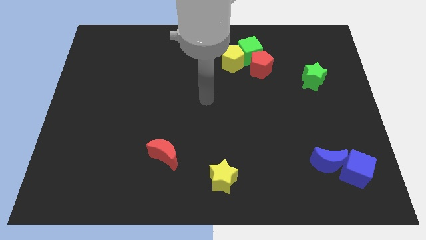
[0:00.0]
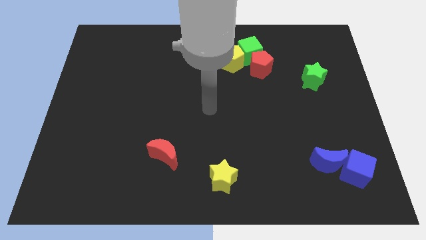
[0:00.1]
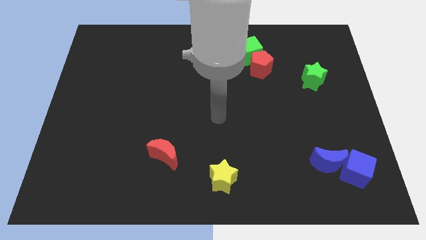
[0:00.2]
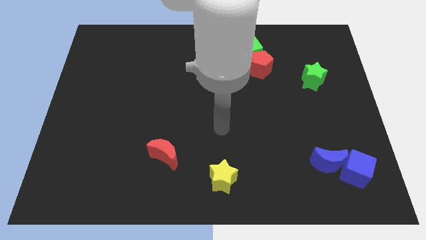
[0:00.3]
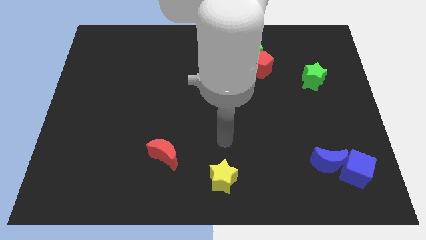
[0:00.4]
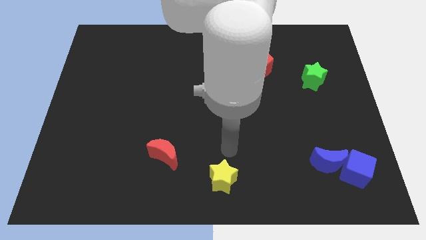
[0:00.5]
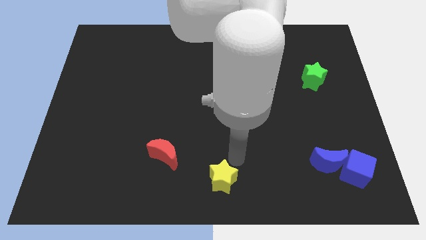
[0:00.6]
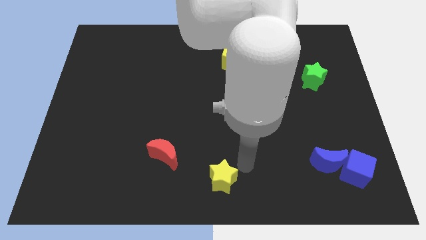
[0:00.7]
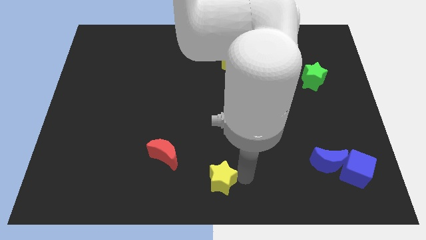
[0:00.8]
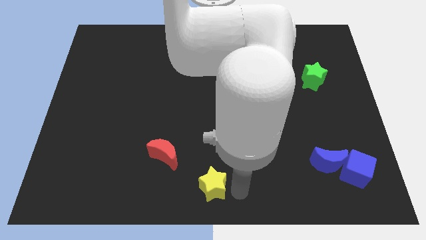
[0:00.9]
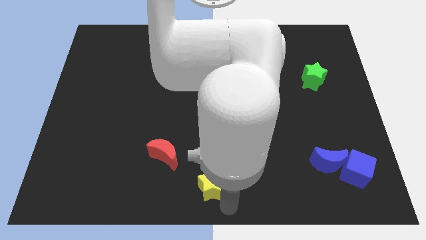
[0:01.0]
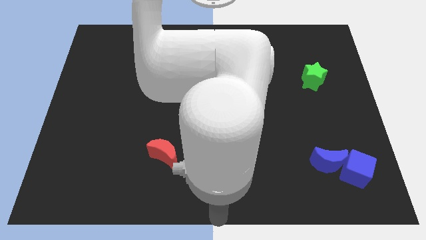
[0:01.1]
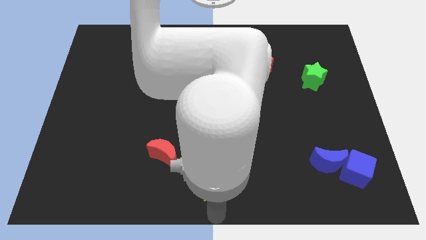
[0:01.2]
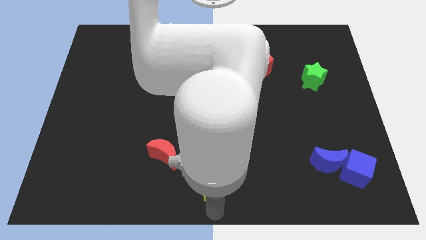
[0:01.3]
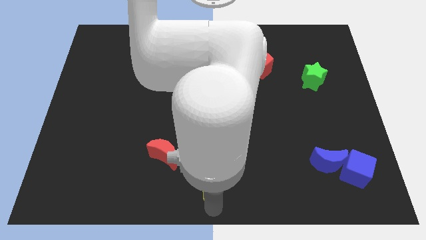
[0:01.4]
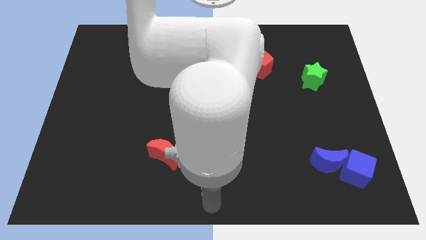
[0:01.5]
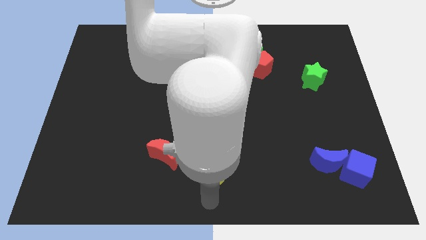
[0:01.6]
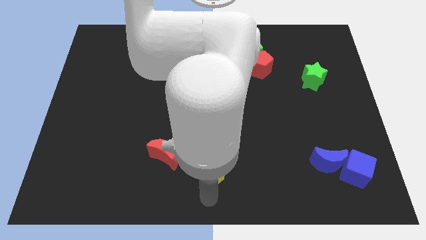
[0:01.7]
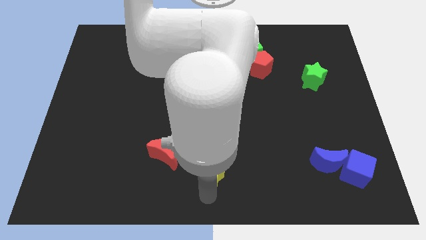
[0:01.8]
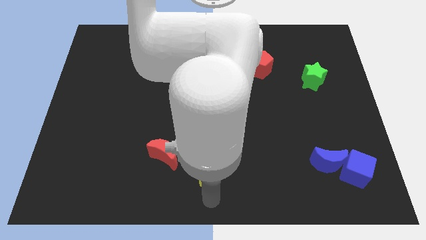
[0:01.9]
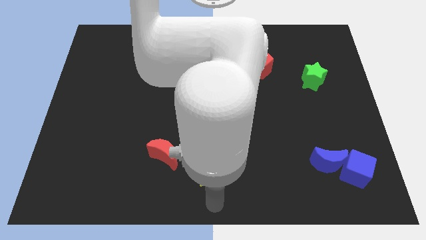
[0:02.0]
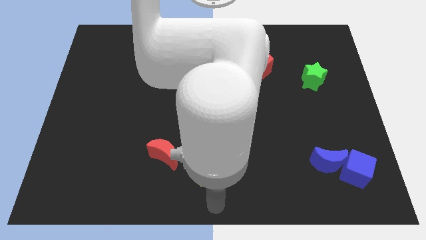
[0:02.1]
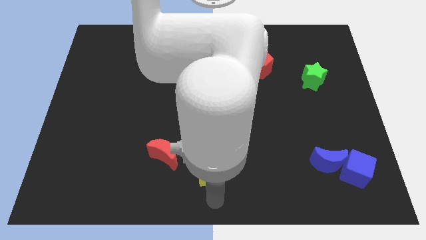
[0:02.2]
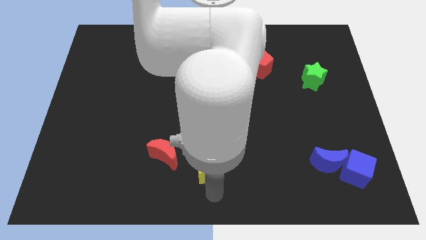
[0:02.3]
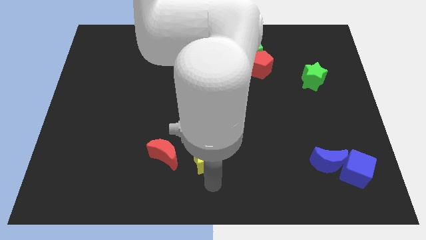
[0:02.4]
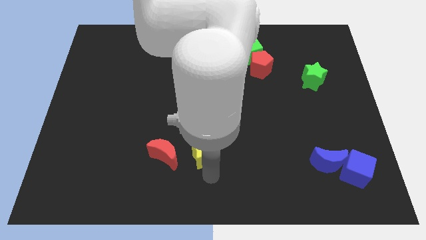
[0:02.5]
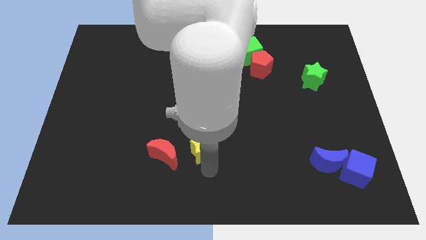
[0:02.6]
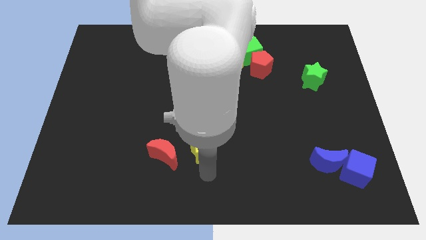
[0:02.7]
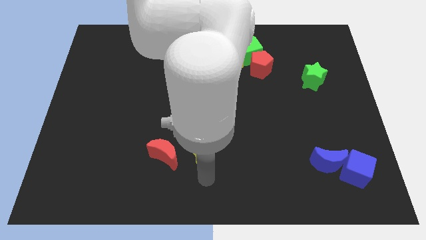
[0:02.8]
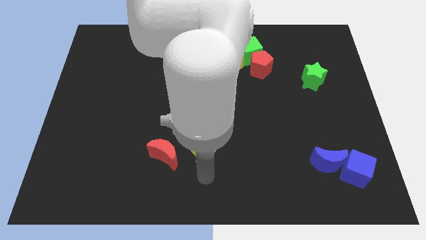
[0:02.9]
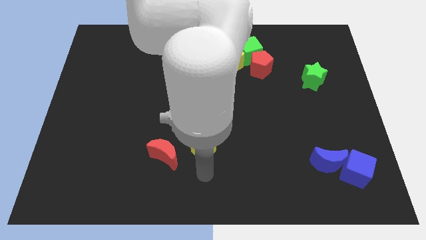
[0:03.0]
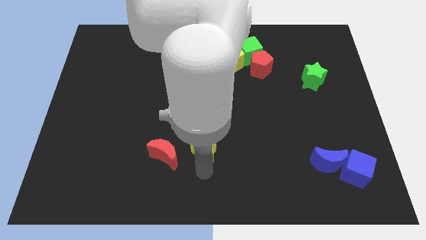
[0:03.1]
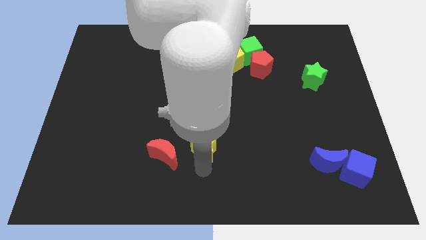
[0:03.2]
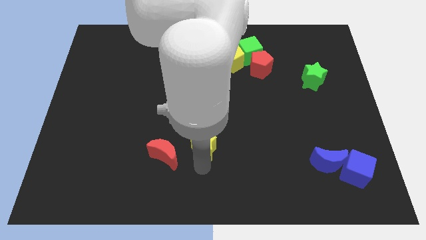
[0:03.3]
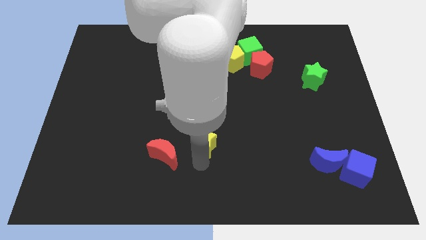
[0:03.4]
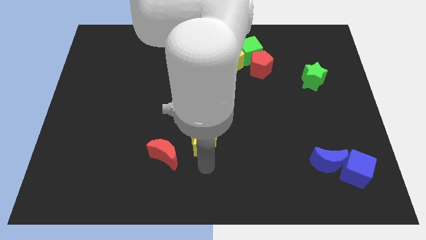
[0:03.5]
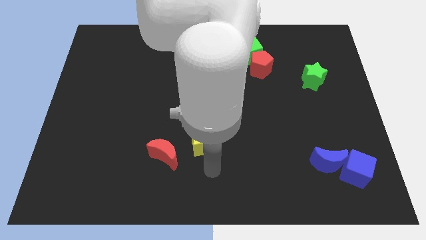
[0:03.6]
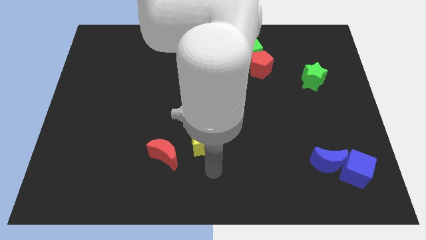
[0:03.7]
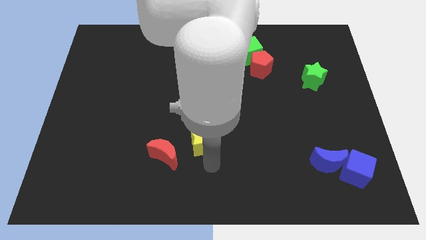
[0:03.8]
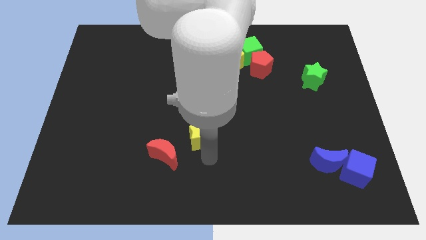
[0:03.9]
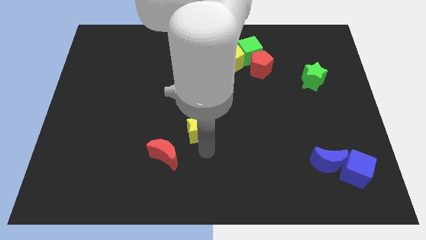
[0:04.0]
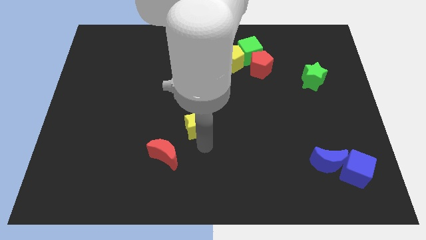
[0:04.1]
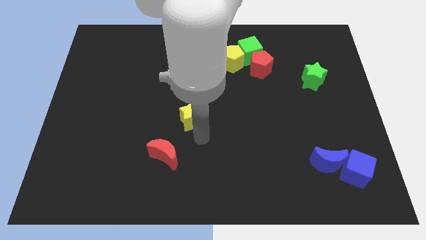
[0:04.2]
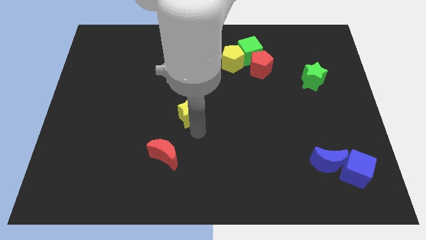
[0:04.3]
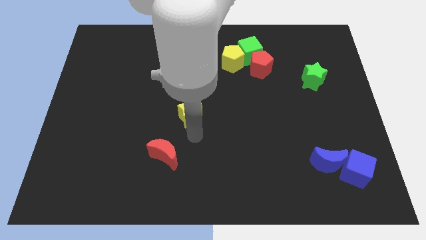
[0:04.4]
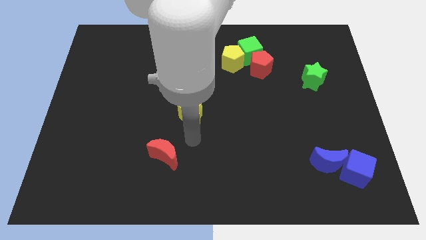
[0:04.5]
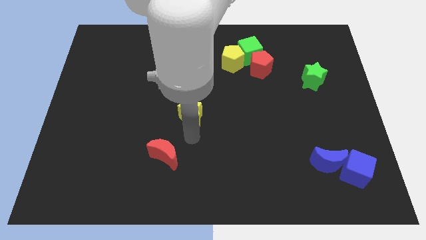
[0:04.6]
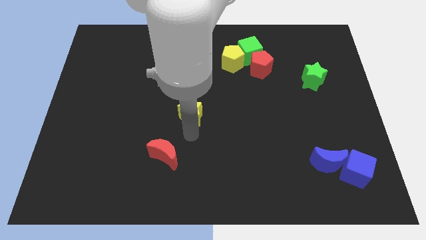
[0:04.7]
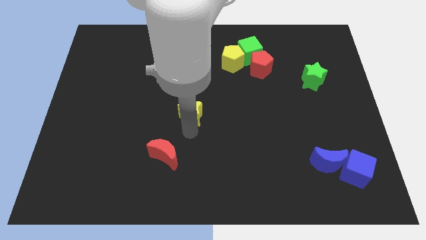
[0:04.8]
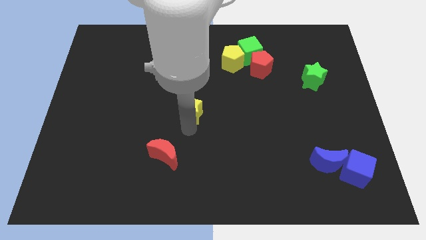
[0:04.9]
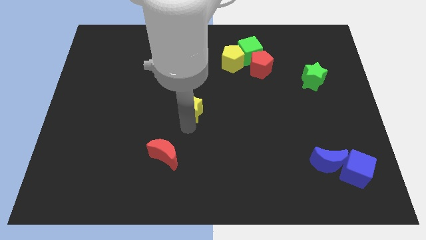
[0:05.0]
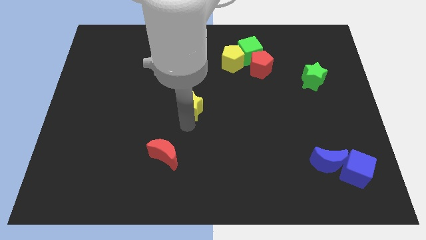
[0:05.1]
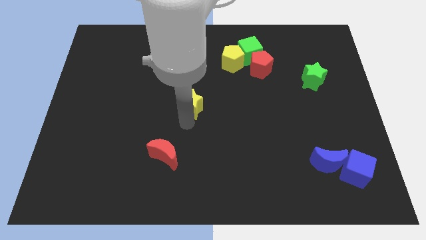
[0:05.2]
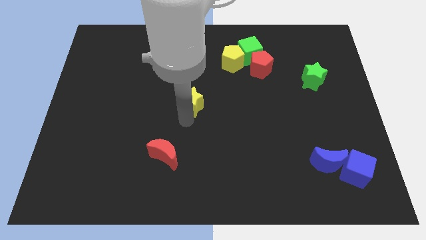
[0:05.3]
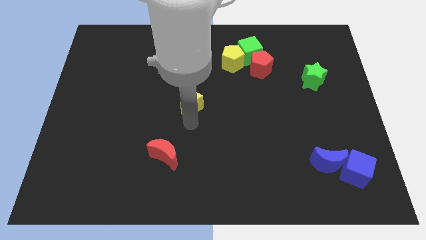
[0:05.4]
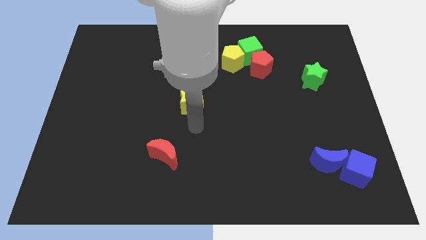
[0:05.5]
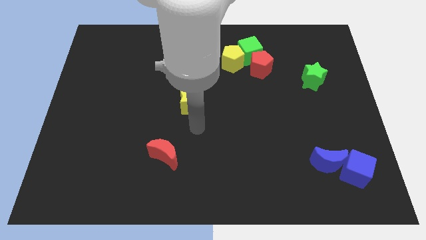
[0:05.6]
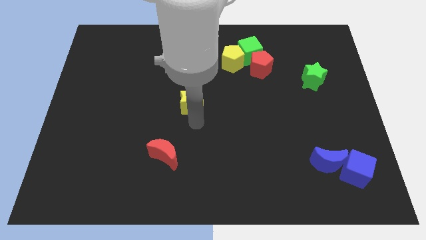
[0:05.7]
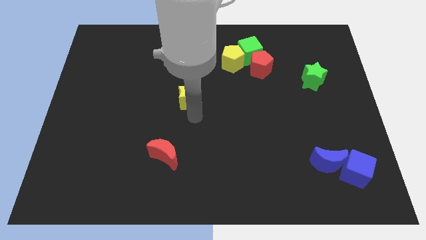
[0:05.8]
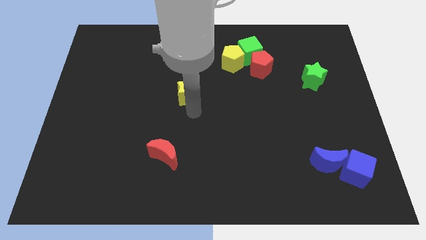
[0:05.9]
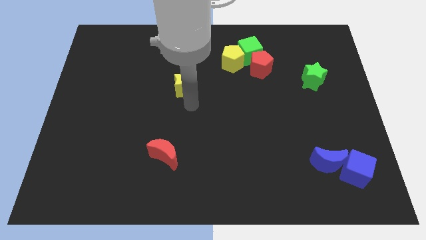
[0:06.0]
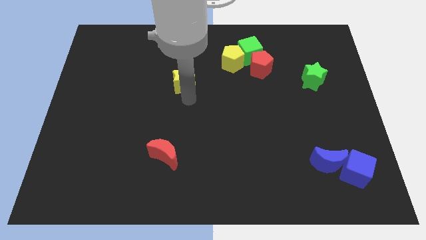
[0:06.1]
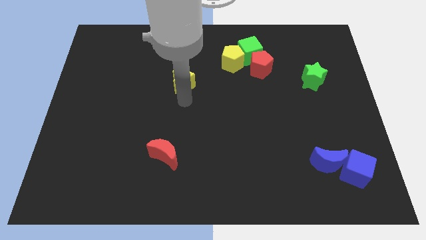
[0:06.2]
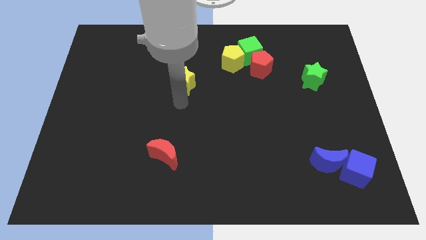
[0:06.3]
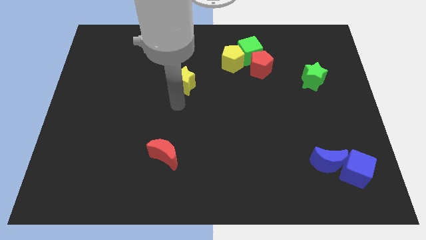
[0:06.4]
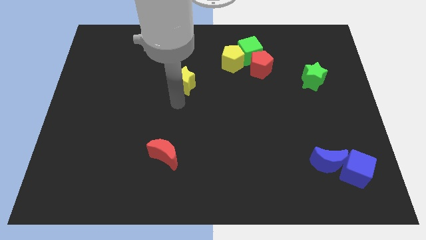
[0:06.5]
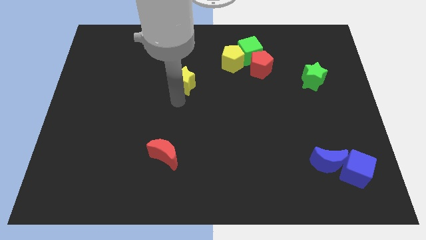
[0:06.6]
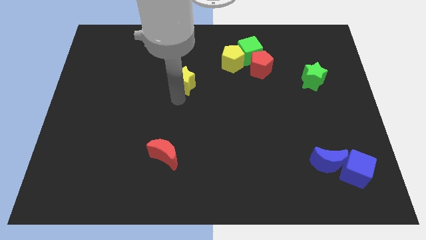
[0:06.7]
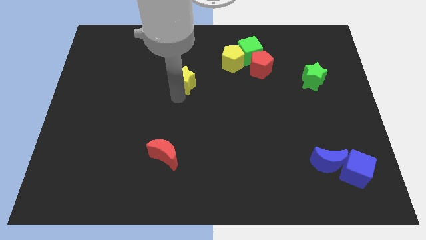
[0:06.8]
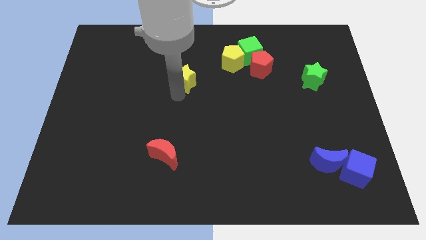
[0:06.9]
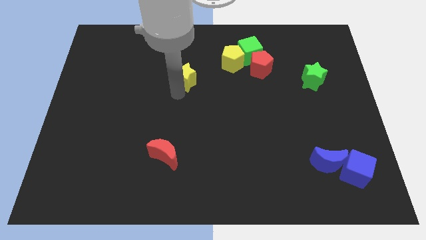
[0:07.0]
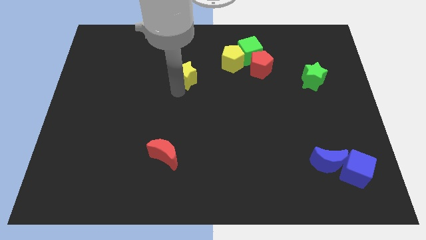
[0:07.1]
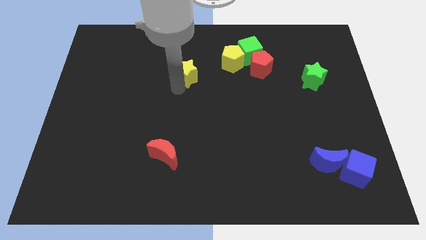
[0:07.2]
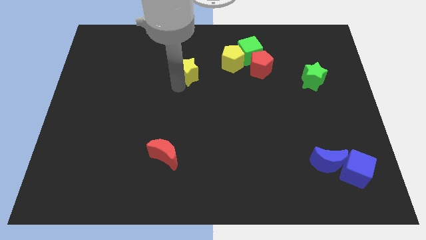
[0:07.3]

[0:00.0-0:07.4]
push the yellow star left of the yellow pentagon
